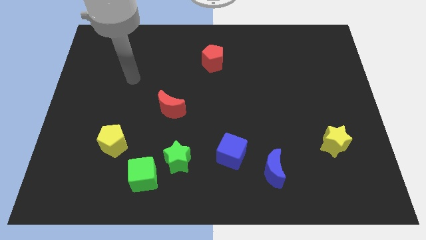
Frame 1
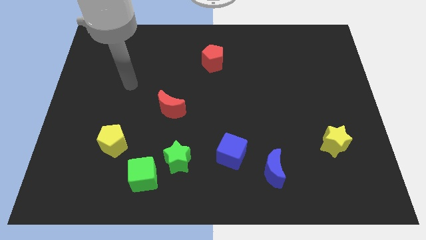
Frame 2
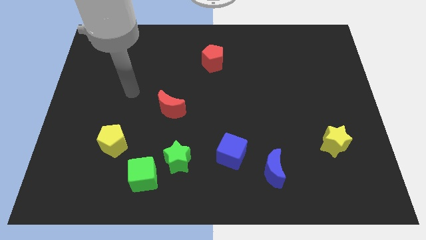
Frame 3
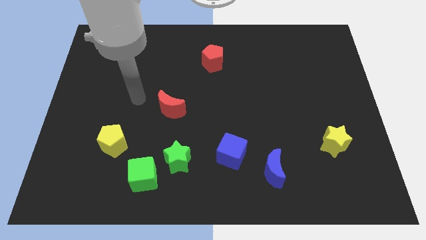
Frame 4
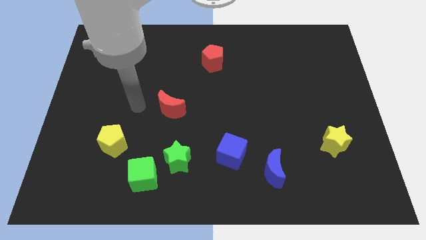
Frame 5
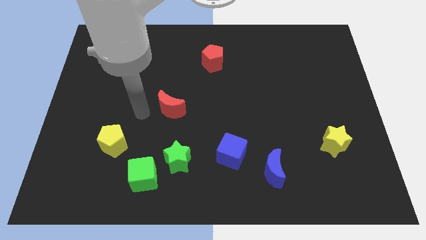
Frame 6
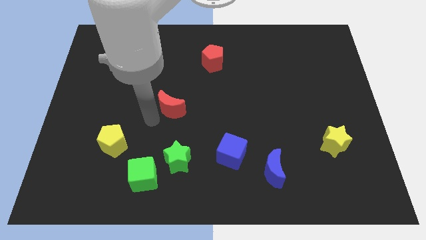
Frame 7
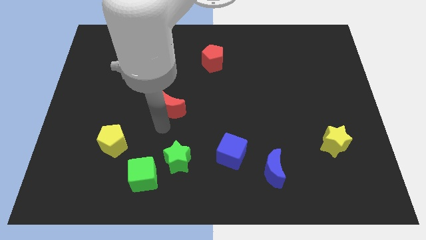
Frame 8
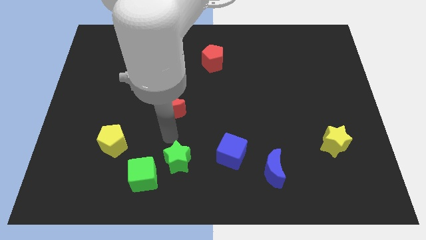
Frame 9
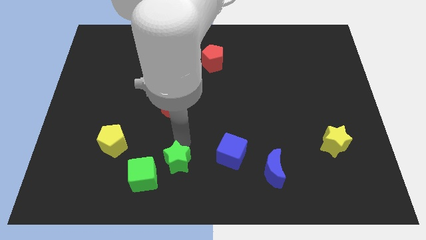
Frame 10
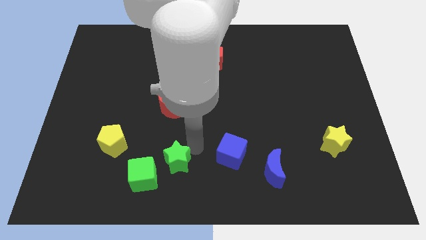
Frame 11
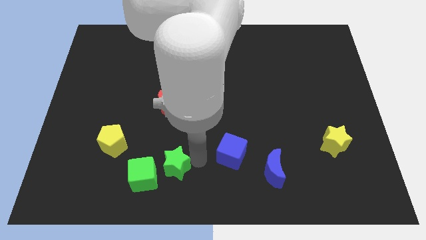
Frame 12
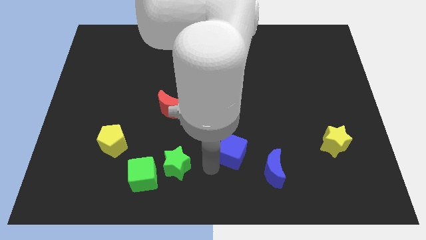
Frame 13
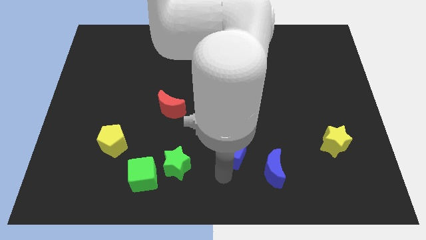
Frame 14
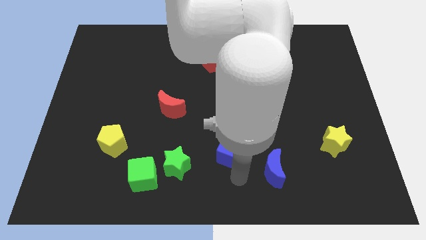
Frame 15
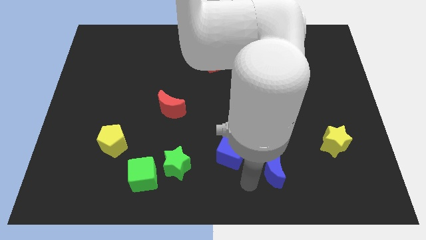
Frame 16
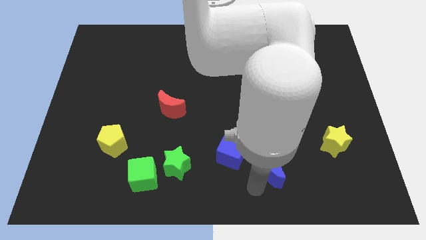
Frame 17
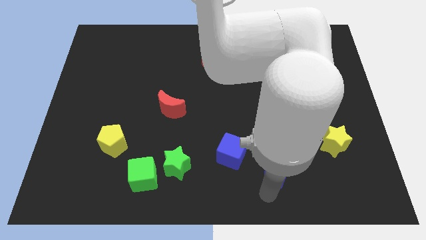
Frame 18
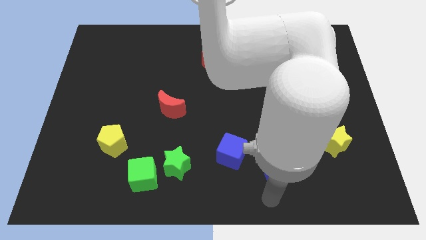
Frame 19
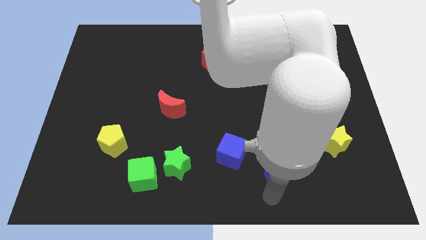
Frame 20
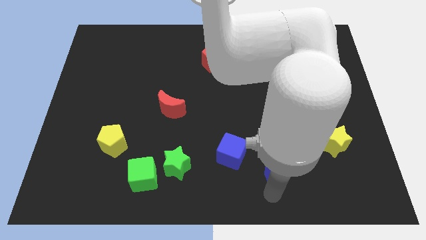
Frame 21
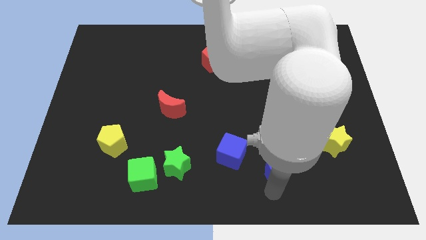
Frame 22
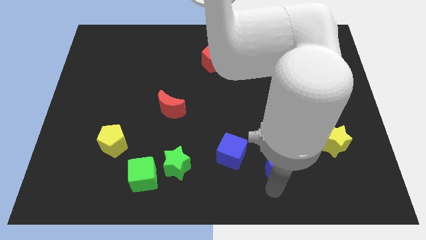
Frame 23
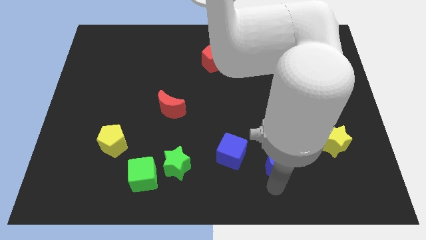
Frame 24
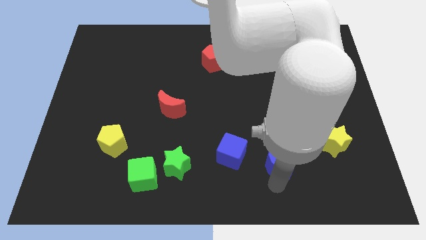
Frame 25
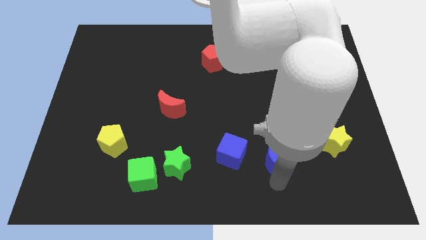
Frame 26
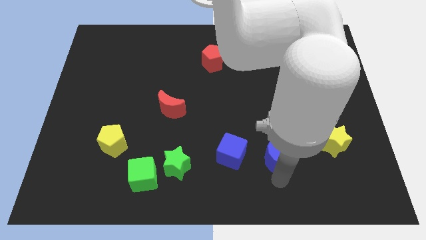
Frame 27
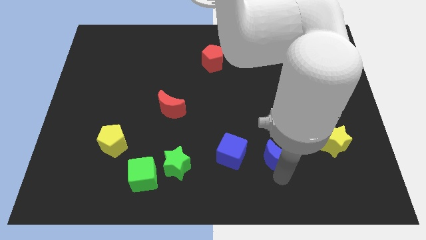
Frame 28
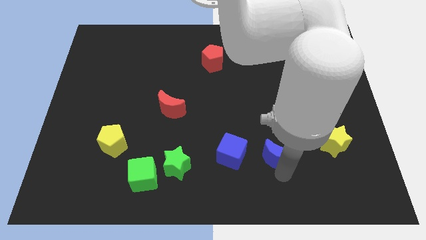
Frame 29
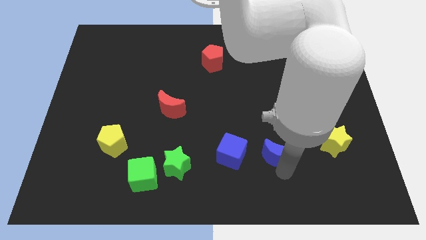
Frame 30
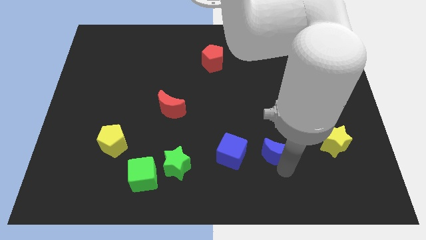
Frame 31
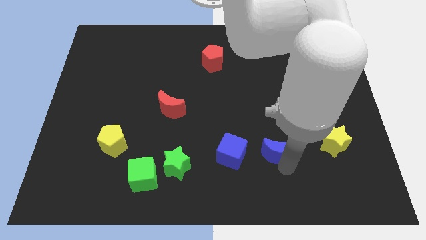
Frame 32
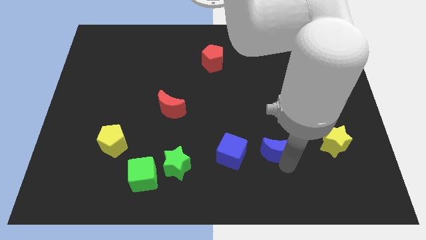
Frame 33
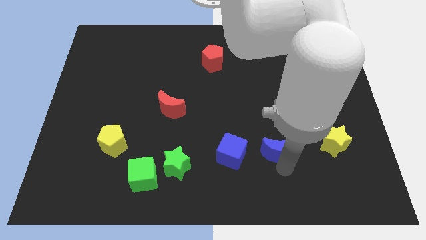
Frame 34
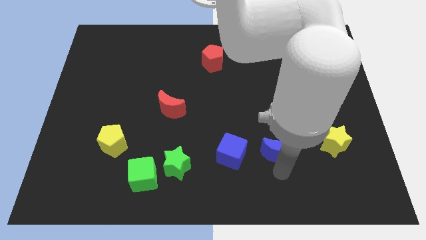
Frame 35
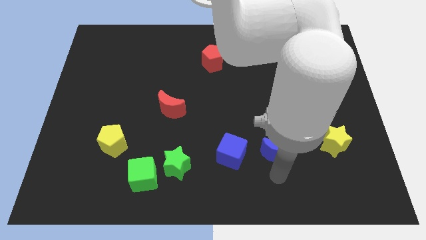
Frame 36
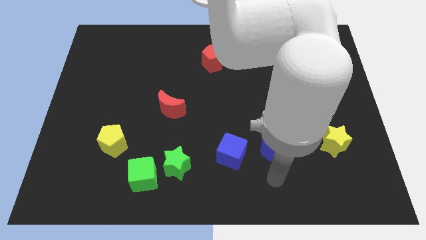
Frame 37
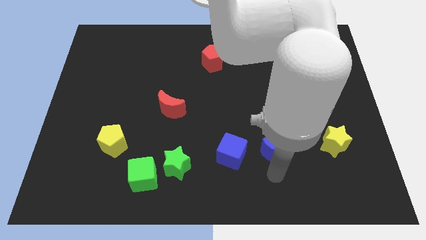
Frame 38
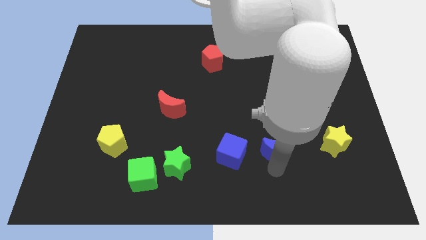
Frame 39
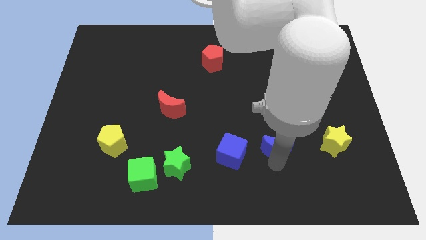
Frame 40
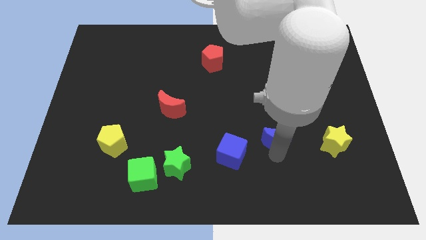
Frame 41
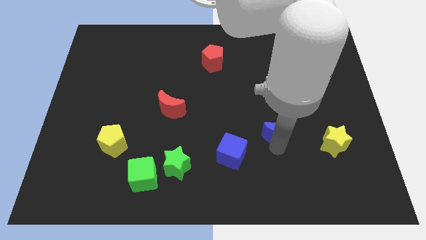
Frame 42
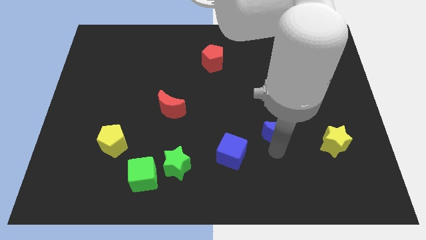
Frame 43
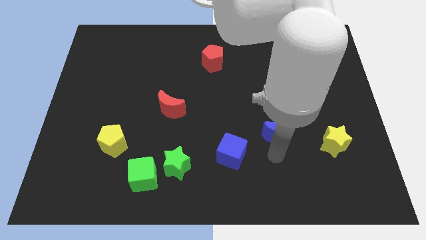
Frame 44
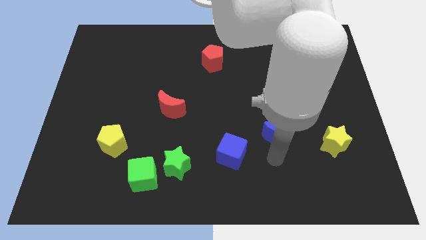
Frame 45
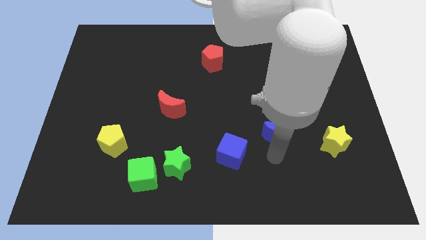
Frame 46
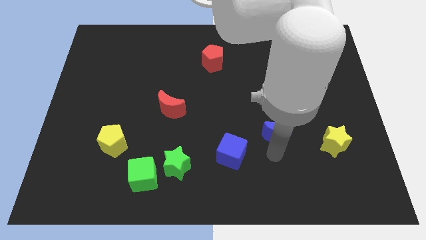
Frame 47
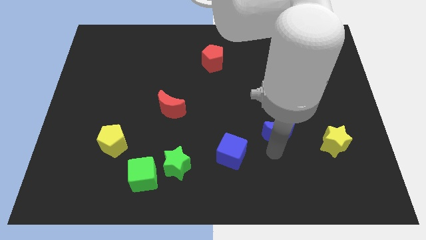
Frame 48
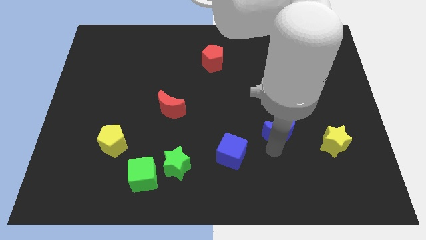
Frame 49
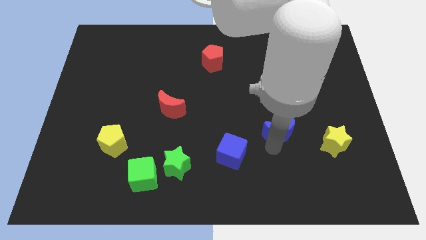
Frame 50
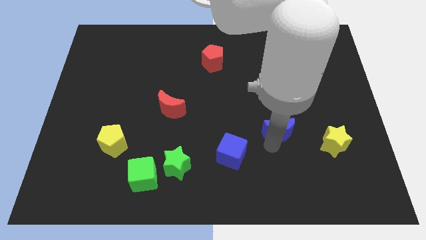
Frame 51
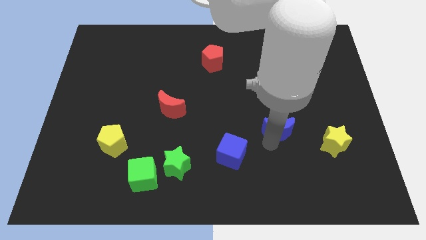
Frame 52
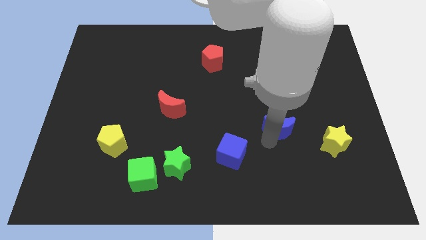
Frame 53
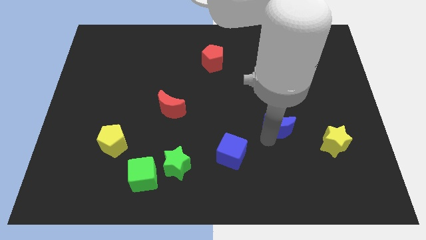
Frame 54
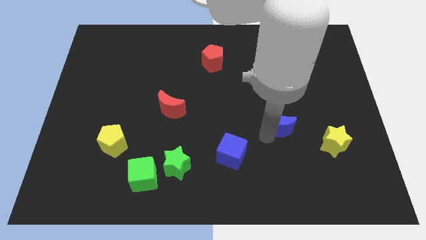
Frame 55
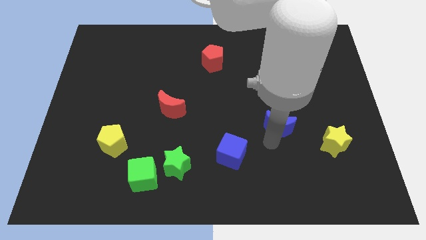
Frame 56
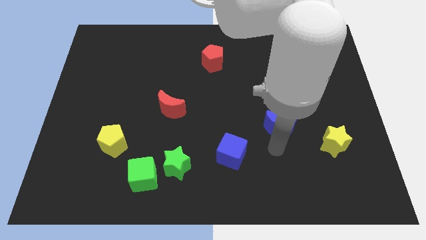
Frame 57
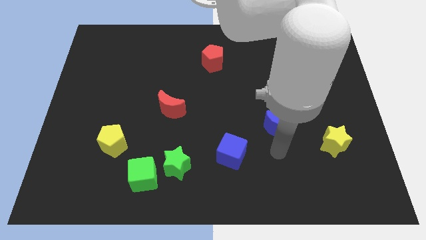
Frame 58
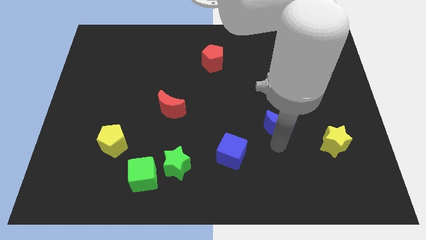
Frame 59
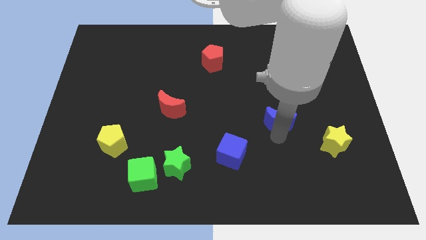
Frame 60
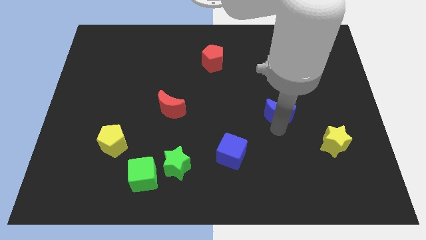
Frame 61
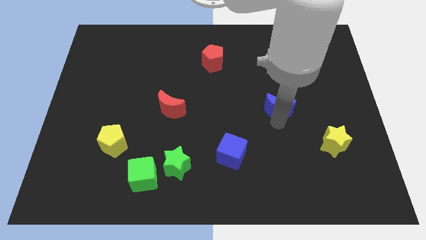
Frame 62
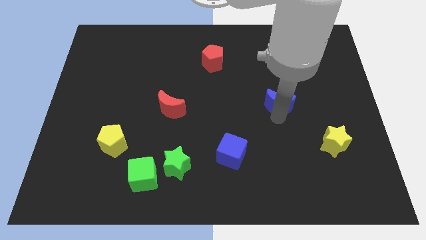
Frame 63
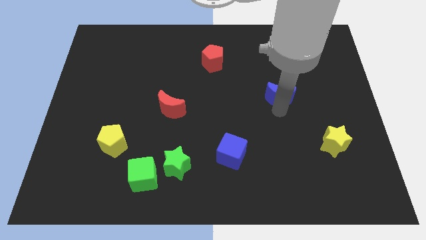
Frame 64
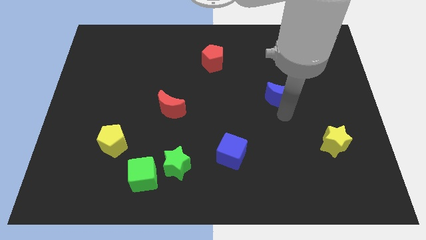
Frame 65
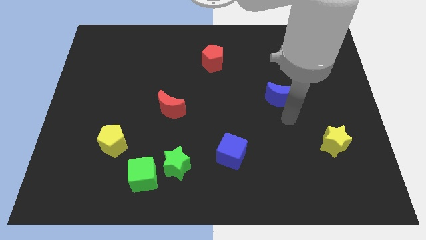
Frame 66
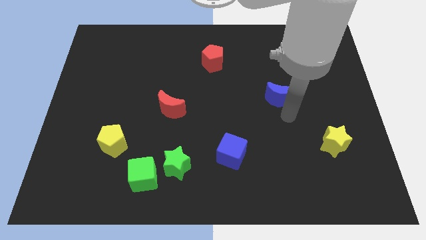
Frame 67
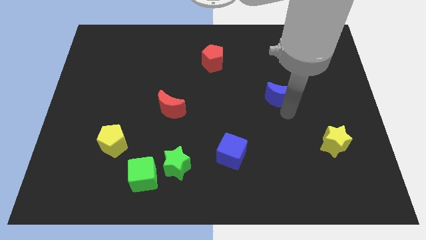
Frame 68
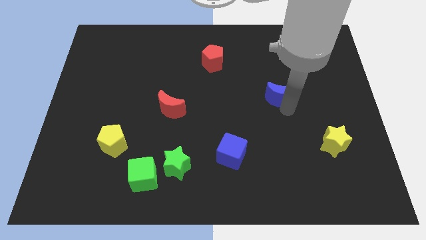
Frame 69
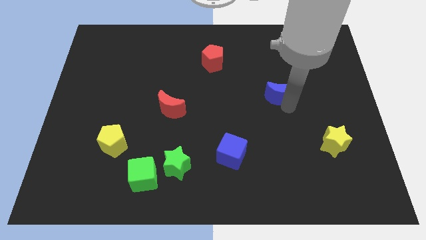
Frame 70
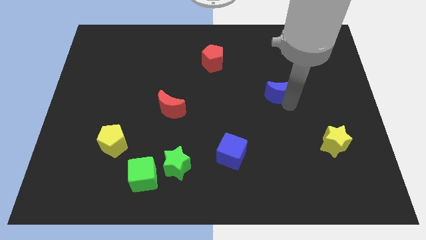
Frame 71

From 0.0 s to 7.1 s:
push the blue moon up

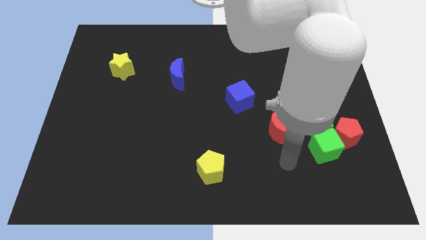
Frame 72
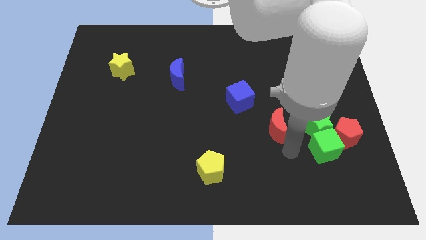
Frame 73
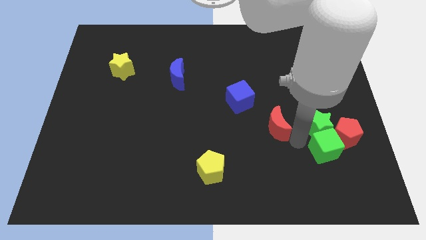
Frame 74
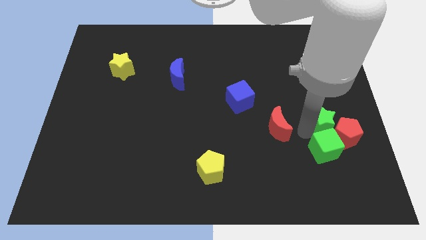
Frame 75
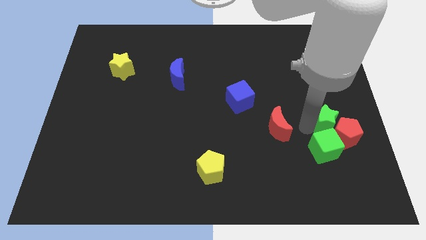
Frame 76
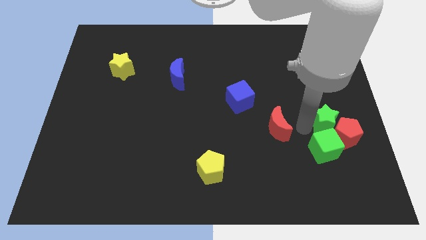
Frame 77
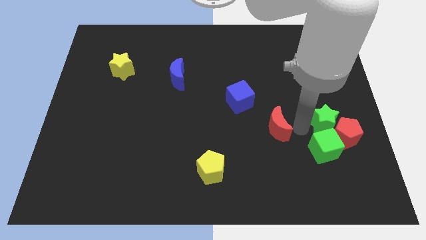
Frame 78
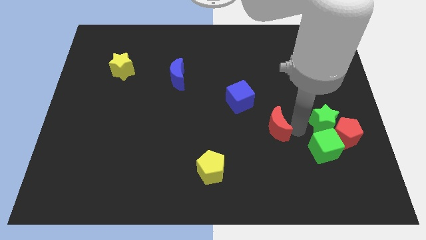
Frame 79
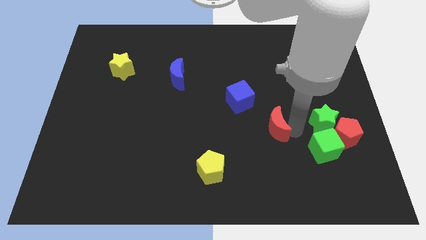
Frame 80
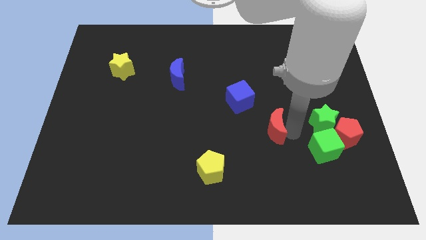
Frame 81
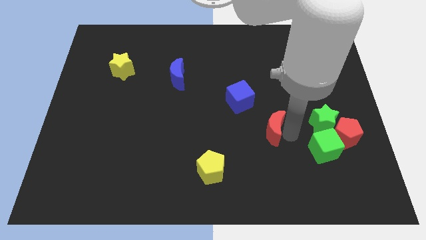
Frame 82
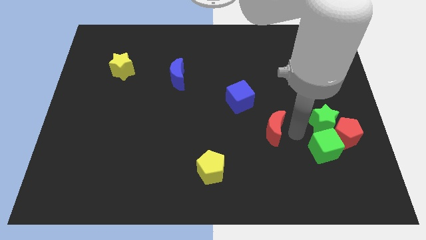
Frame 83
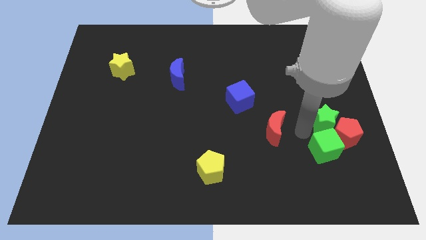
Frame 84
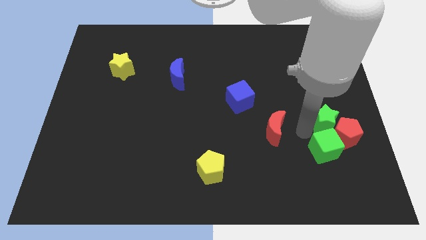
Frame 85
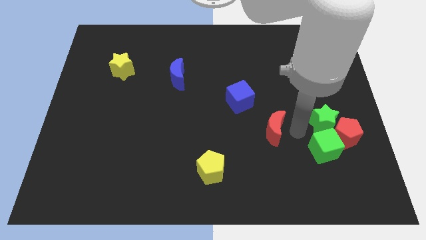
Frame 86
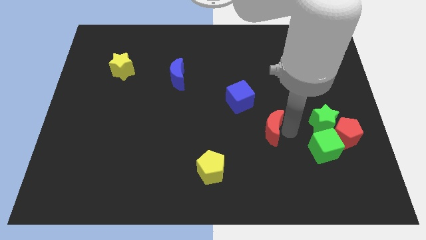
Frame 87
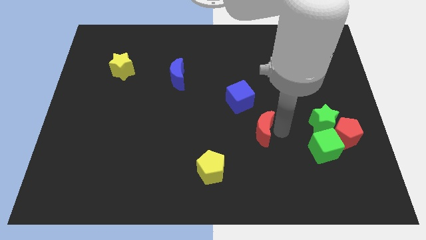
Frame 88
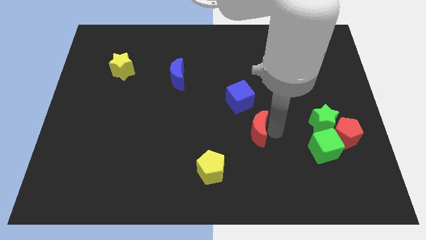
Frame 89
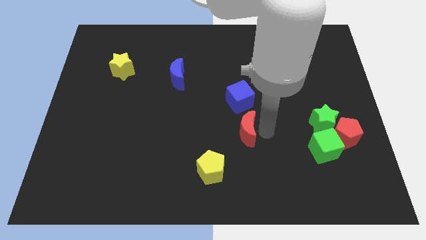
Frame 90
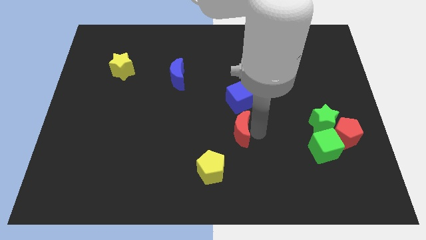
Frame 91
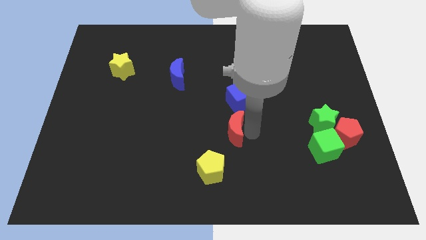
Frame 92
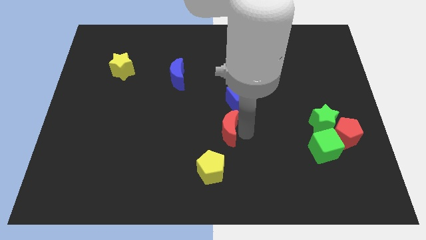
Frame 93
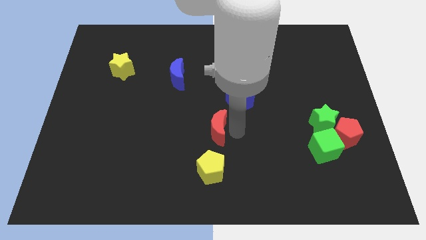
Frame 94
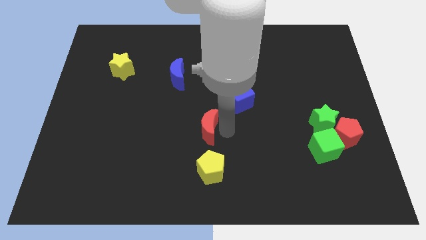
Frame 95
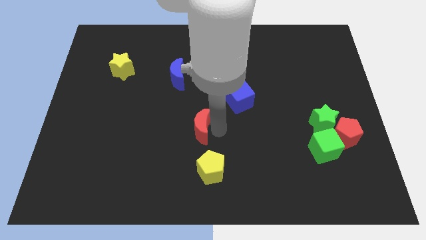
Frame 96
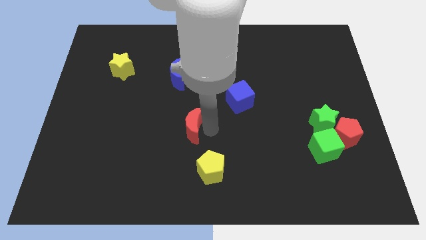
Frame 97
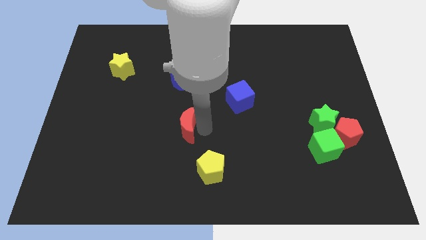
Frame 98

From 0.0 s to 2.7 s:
slide the red moon to the left
